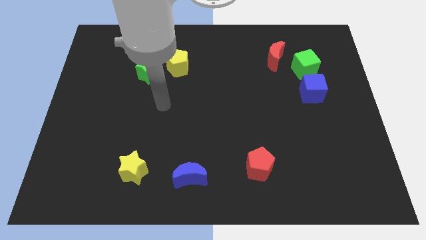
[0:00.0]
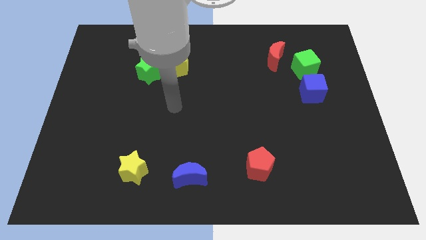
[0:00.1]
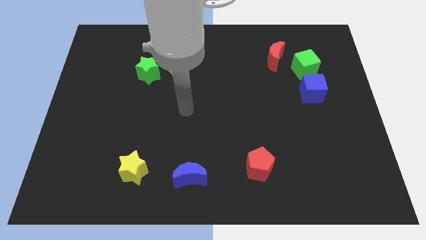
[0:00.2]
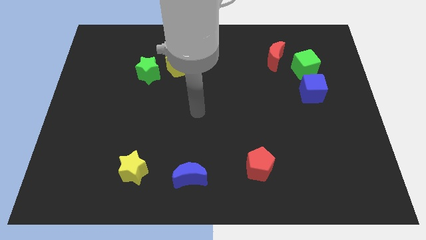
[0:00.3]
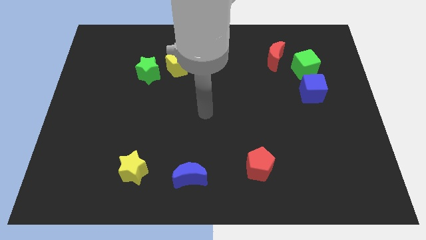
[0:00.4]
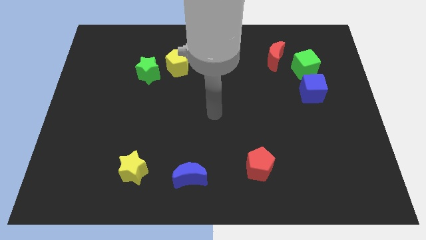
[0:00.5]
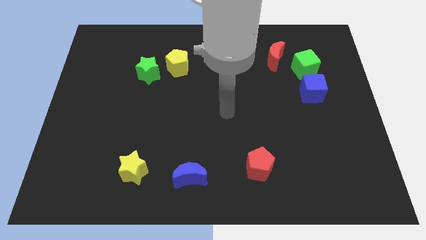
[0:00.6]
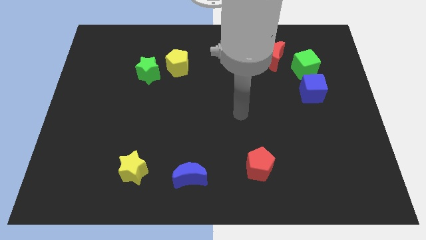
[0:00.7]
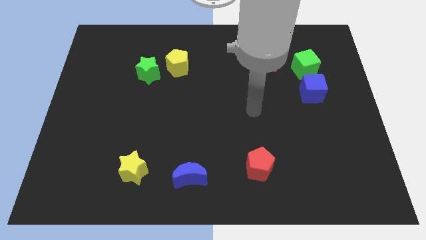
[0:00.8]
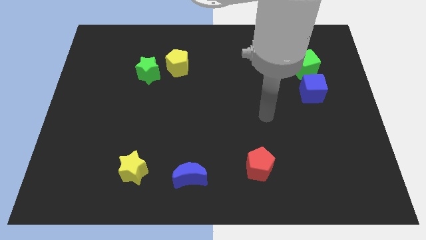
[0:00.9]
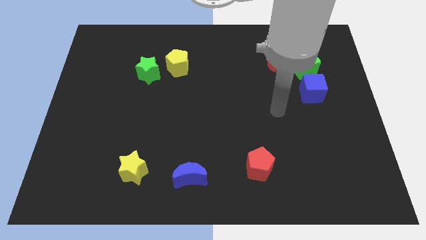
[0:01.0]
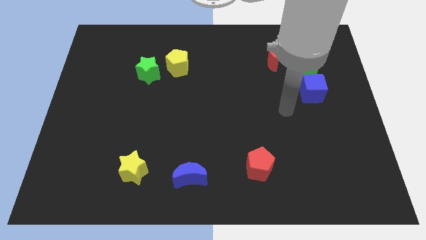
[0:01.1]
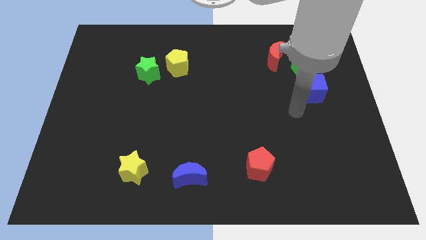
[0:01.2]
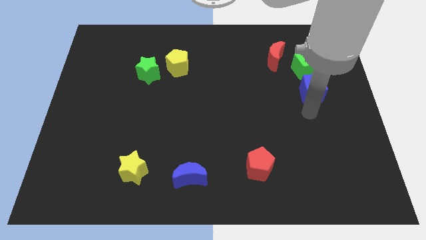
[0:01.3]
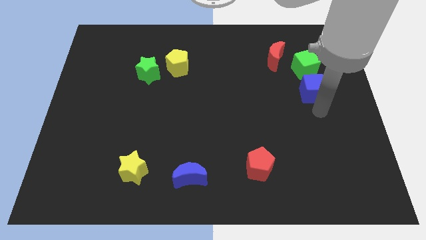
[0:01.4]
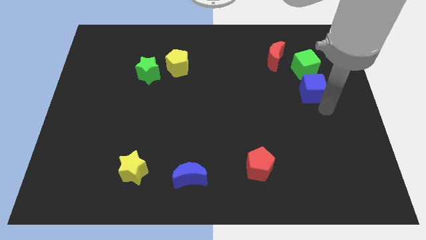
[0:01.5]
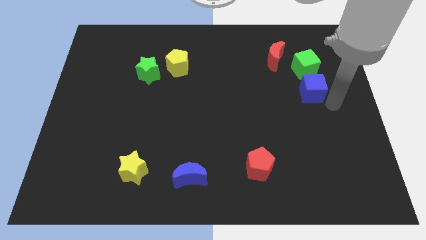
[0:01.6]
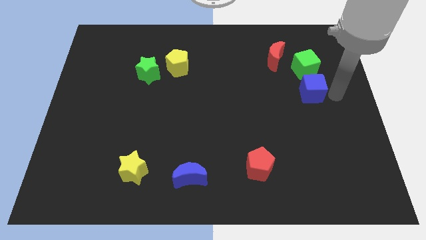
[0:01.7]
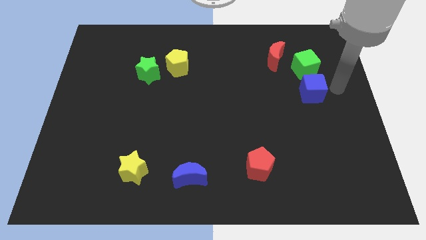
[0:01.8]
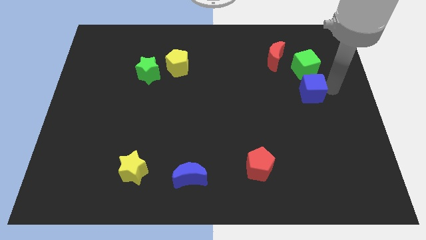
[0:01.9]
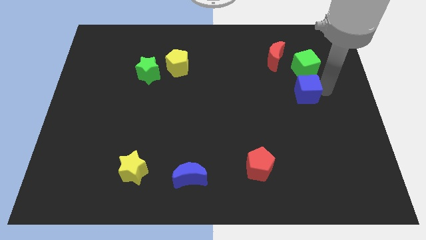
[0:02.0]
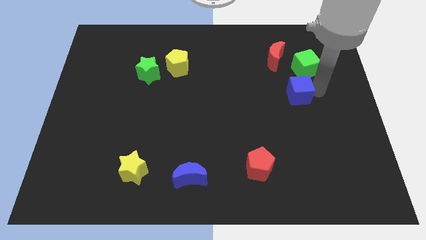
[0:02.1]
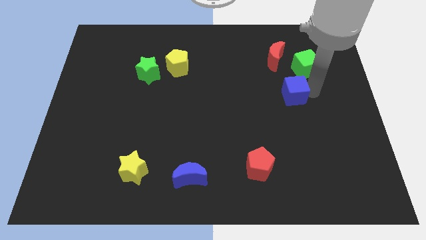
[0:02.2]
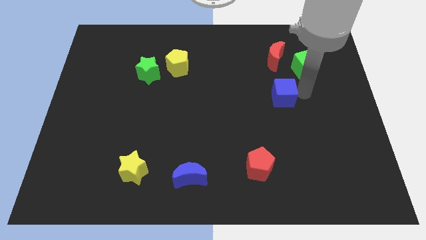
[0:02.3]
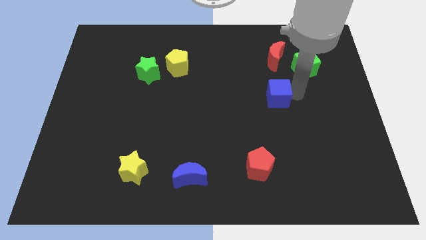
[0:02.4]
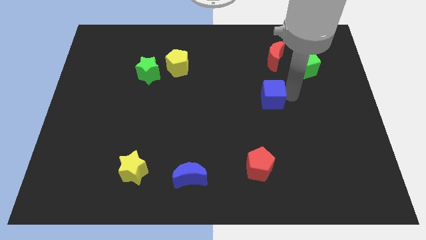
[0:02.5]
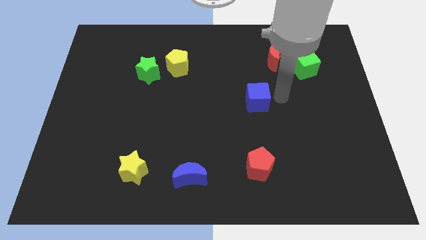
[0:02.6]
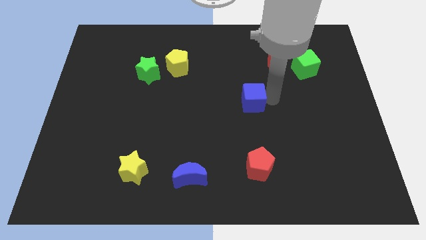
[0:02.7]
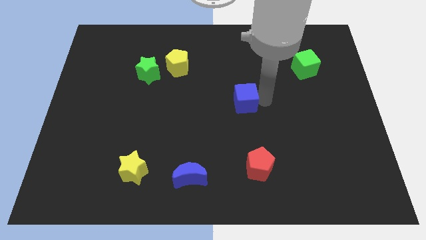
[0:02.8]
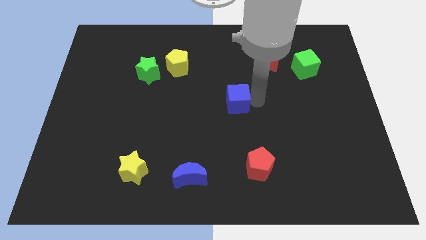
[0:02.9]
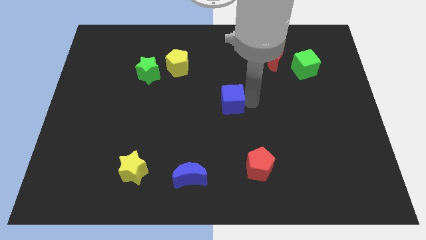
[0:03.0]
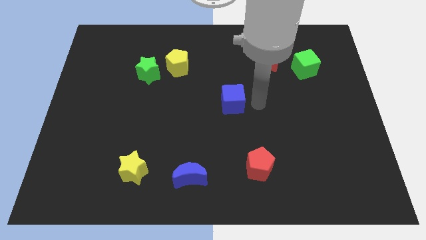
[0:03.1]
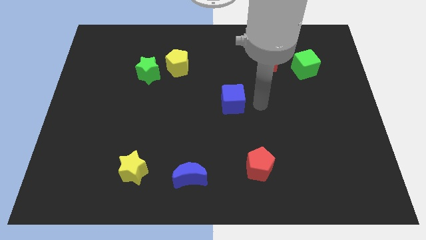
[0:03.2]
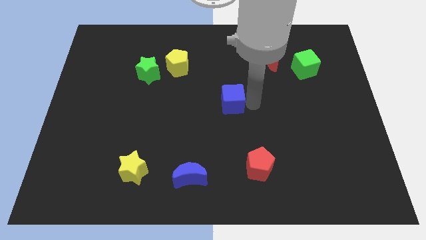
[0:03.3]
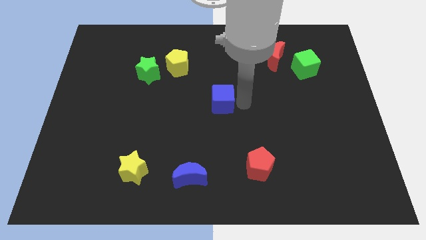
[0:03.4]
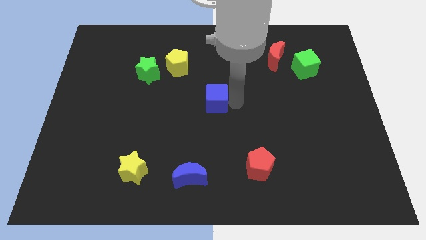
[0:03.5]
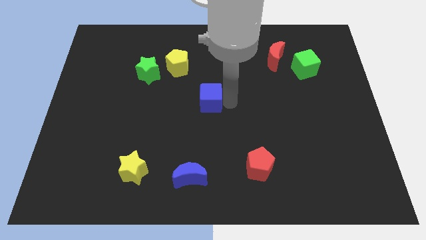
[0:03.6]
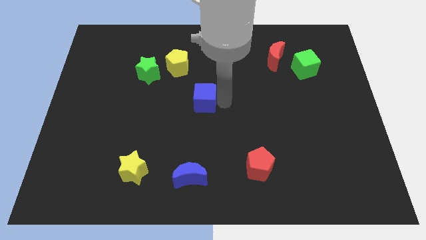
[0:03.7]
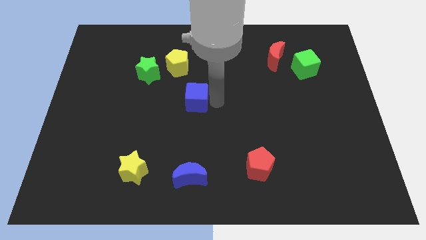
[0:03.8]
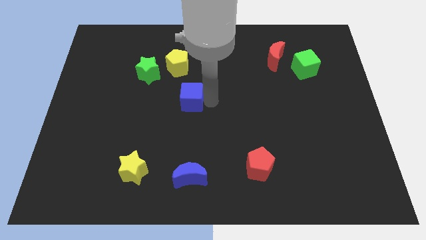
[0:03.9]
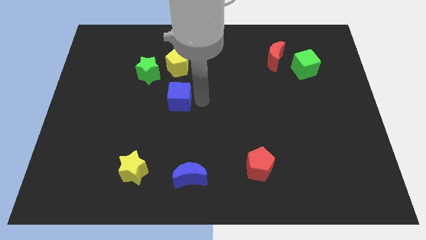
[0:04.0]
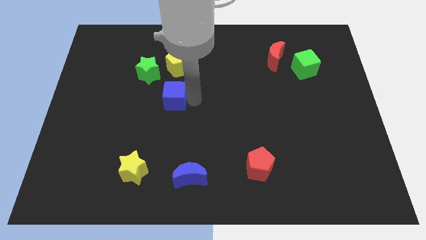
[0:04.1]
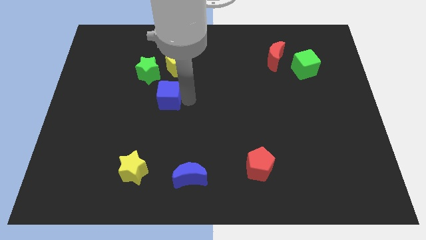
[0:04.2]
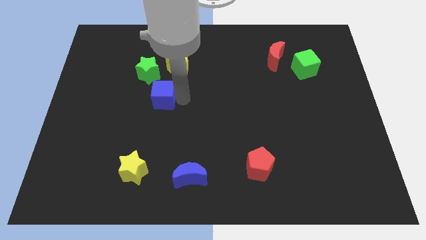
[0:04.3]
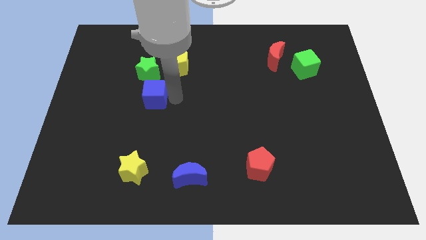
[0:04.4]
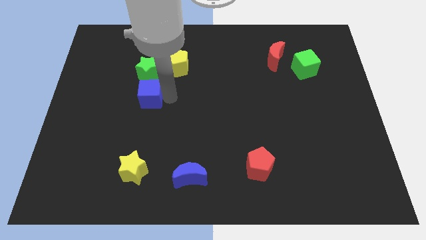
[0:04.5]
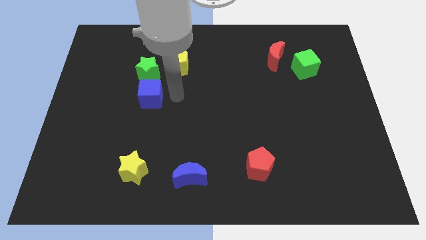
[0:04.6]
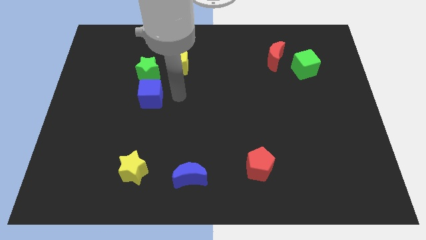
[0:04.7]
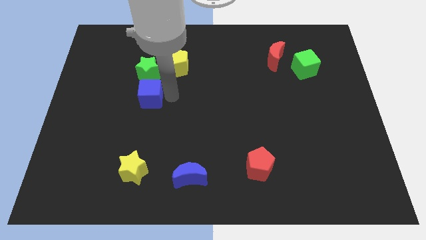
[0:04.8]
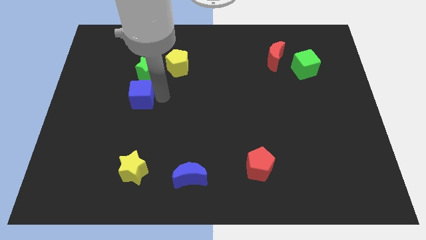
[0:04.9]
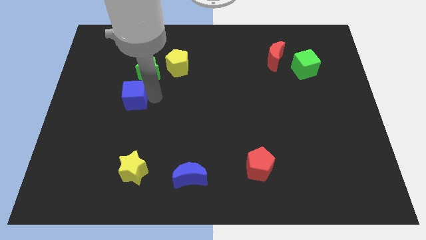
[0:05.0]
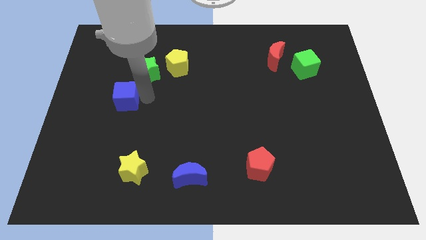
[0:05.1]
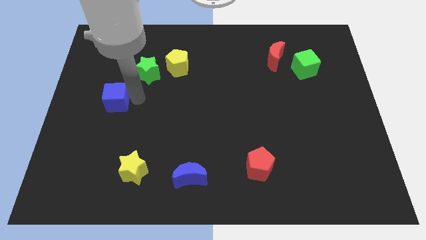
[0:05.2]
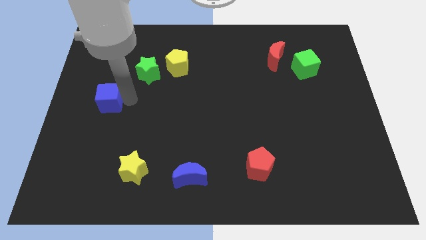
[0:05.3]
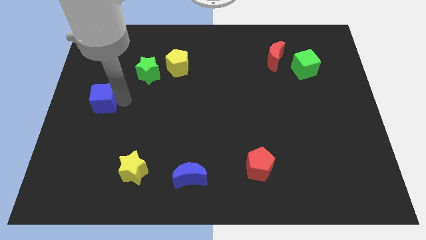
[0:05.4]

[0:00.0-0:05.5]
slide the blue cube to the left side

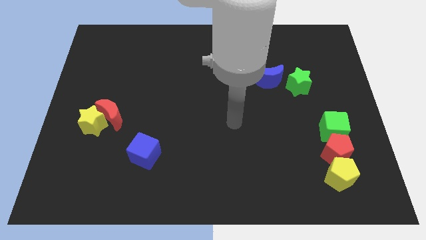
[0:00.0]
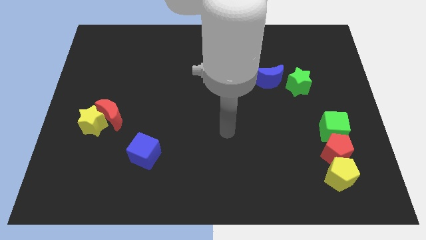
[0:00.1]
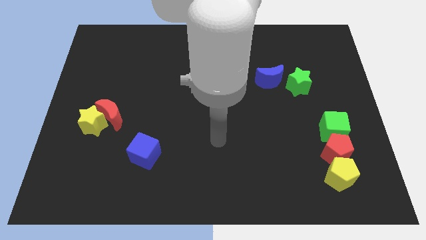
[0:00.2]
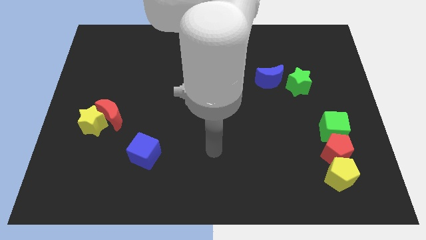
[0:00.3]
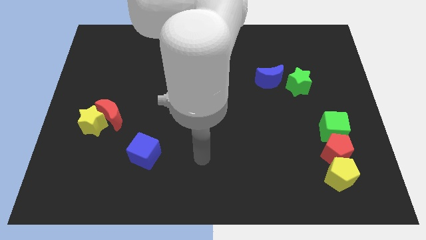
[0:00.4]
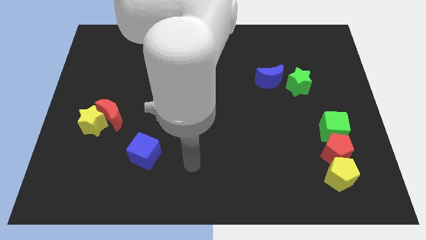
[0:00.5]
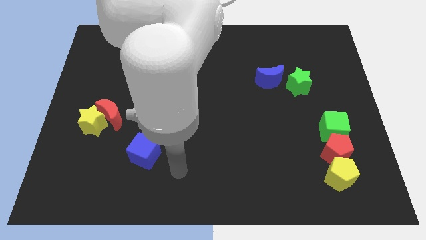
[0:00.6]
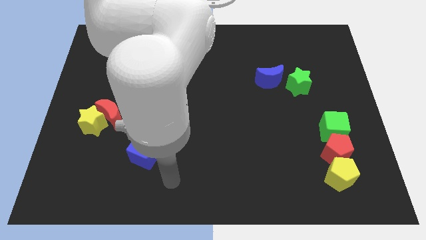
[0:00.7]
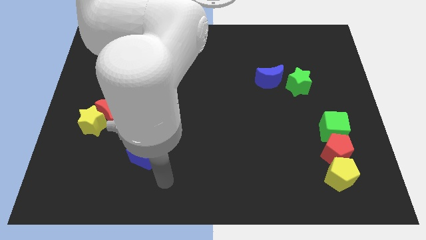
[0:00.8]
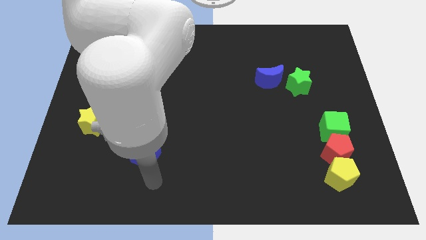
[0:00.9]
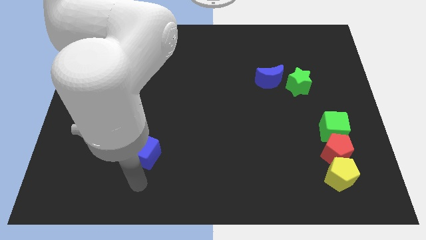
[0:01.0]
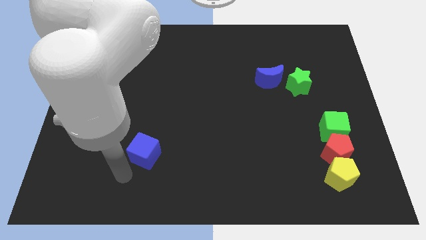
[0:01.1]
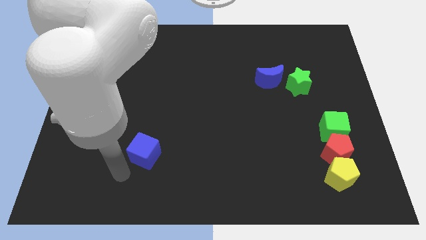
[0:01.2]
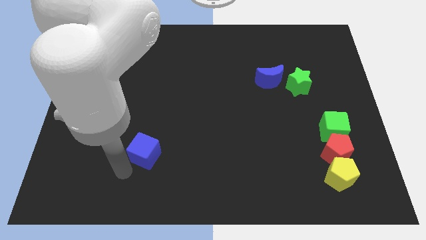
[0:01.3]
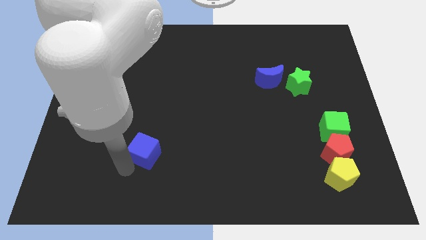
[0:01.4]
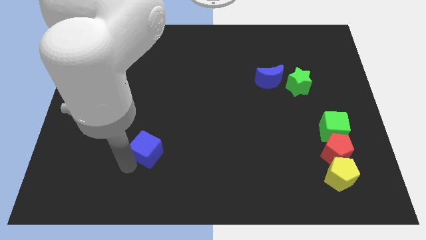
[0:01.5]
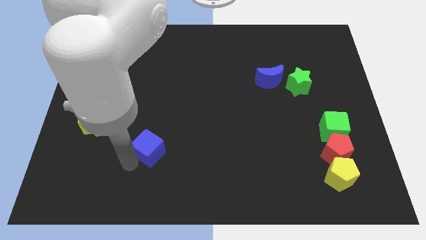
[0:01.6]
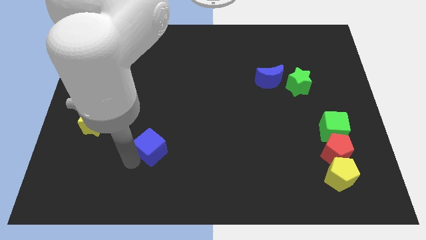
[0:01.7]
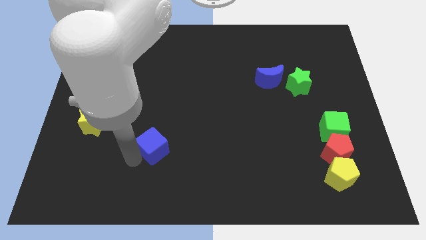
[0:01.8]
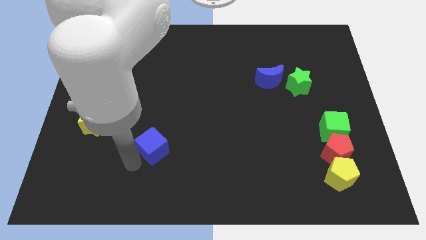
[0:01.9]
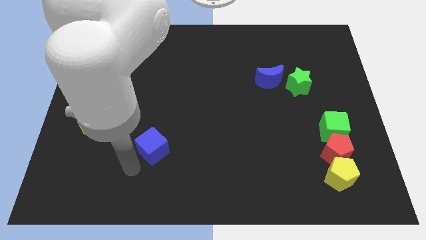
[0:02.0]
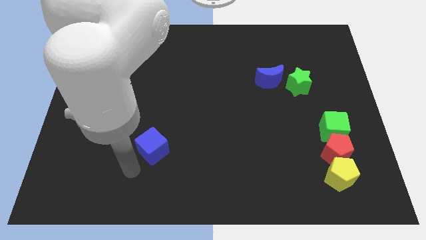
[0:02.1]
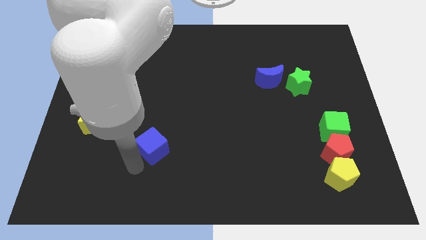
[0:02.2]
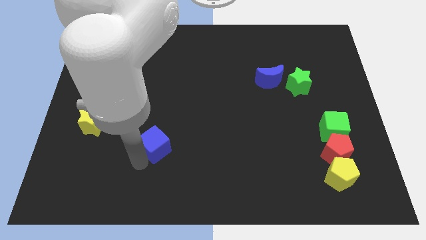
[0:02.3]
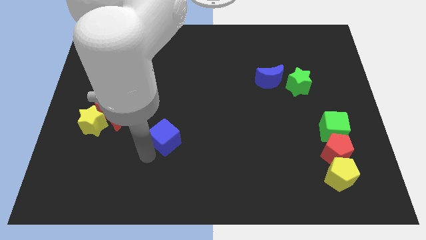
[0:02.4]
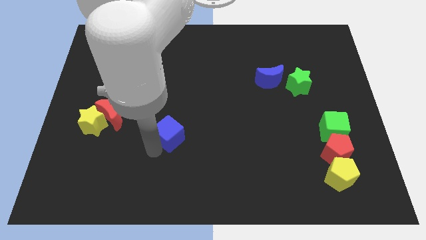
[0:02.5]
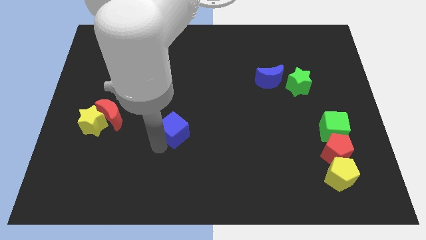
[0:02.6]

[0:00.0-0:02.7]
put the blue cube to the middle of the board
